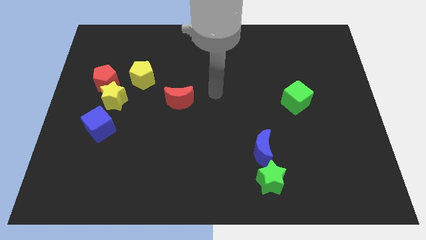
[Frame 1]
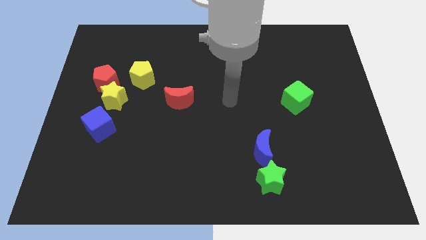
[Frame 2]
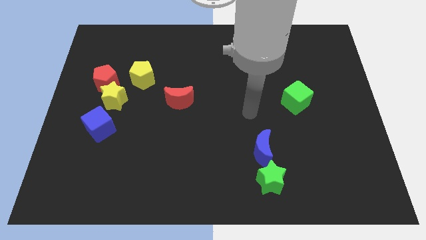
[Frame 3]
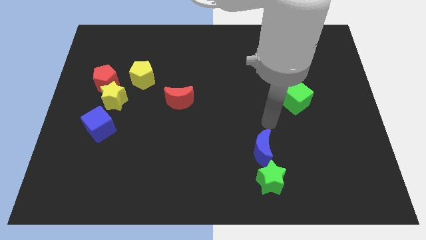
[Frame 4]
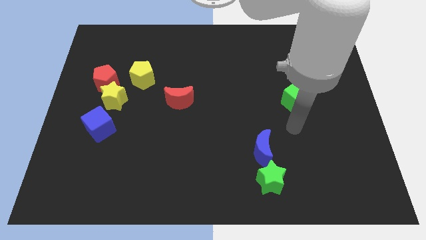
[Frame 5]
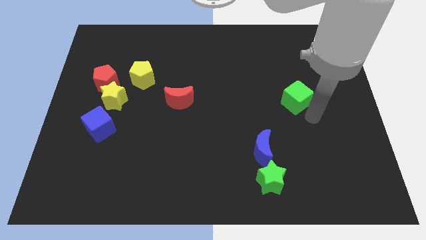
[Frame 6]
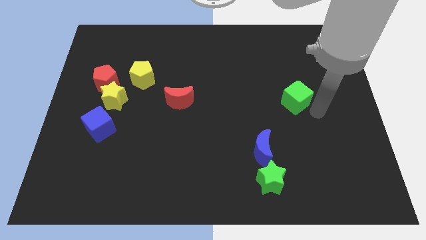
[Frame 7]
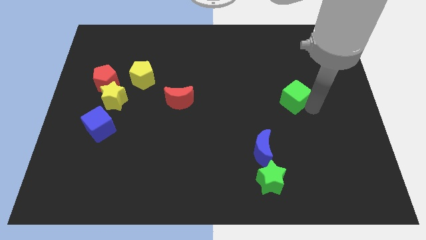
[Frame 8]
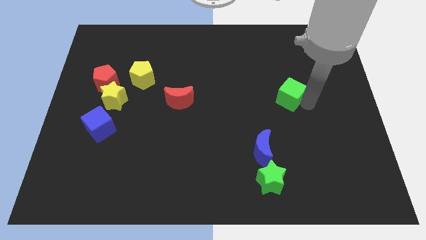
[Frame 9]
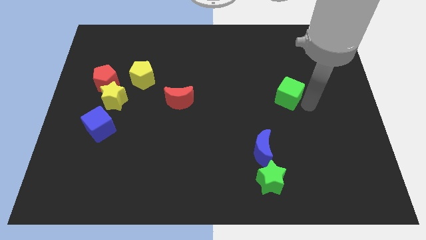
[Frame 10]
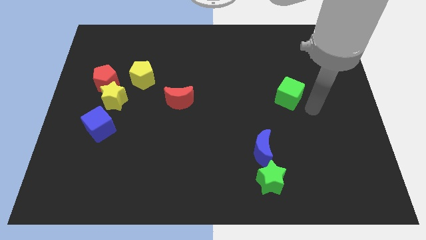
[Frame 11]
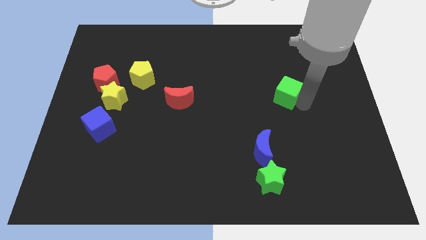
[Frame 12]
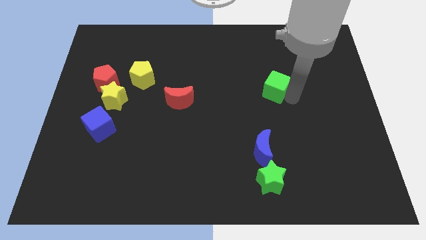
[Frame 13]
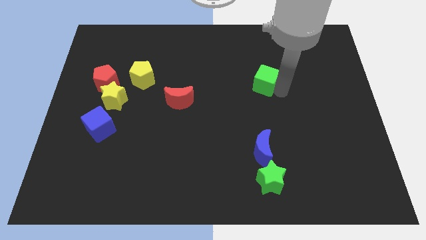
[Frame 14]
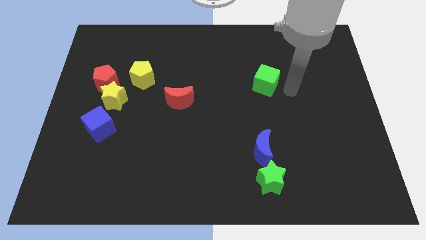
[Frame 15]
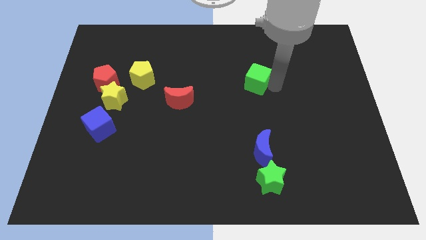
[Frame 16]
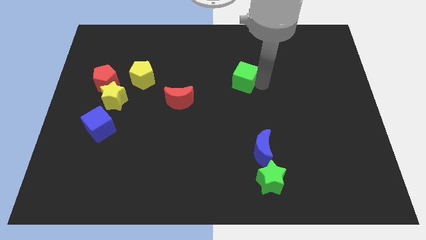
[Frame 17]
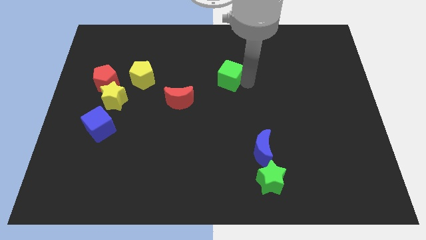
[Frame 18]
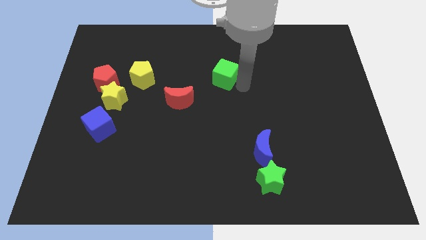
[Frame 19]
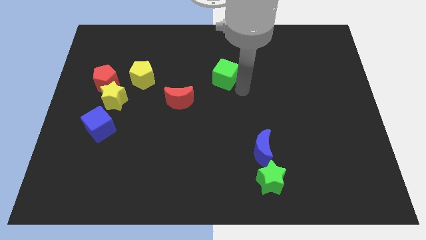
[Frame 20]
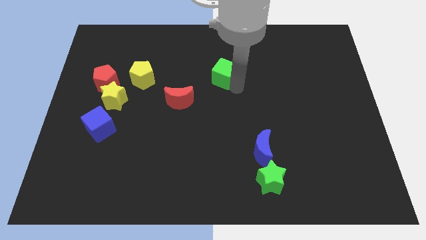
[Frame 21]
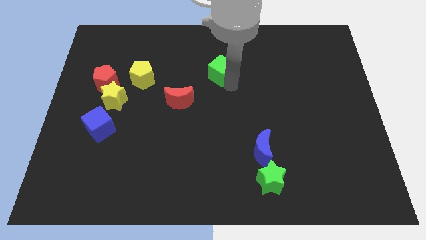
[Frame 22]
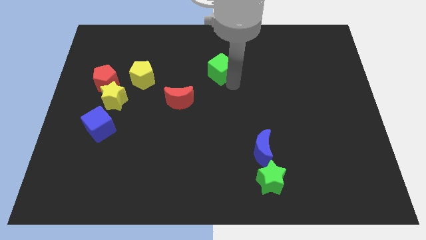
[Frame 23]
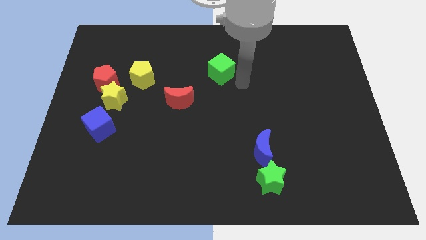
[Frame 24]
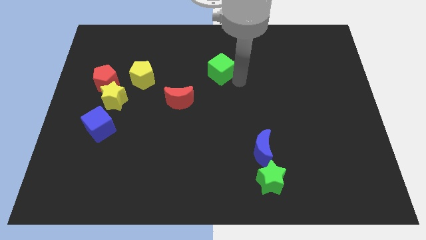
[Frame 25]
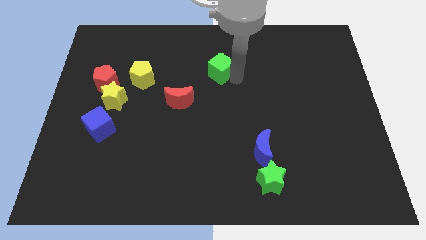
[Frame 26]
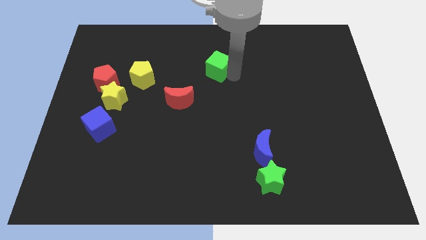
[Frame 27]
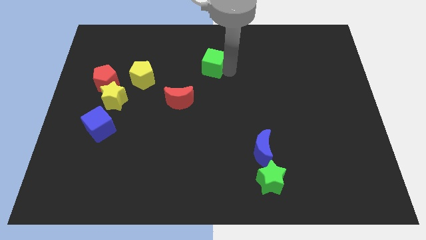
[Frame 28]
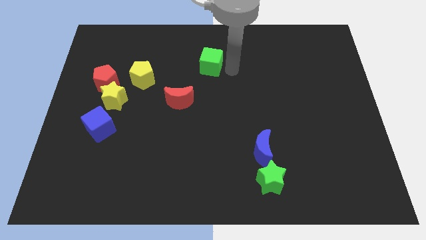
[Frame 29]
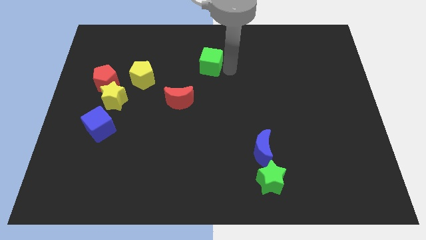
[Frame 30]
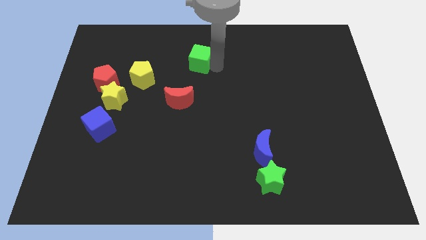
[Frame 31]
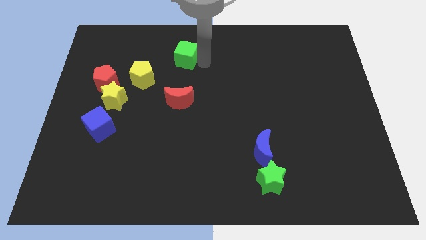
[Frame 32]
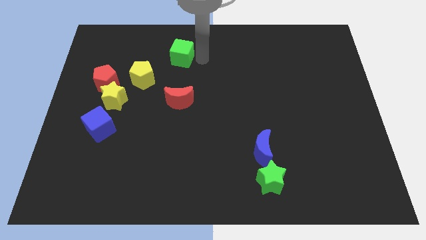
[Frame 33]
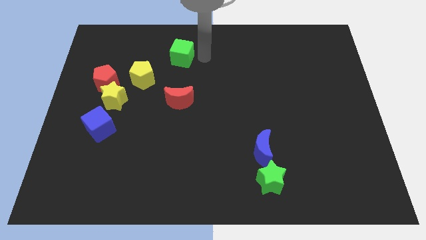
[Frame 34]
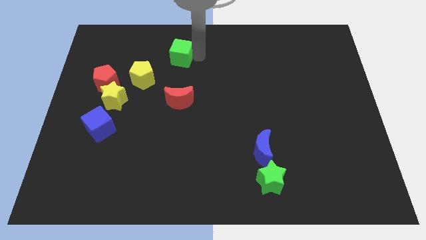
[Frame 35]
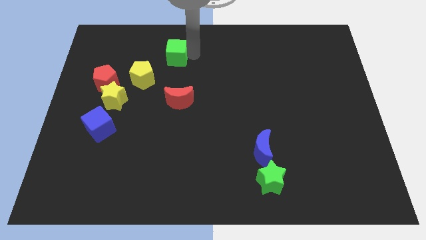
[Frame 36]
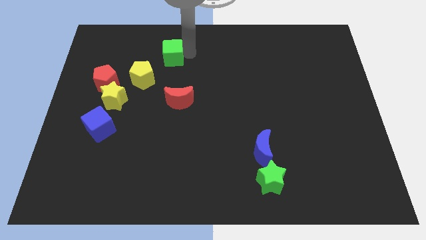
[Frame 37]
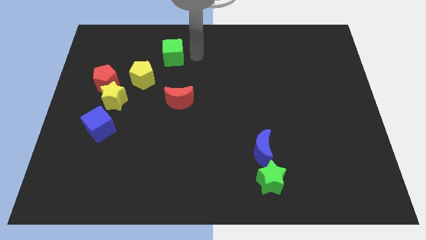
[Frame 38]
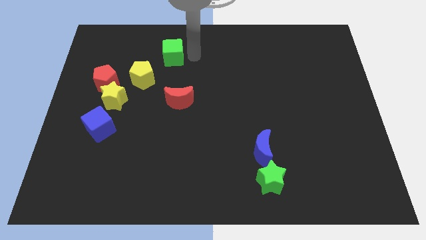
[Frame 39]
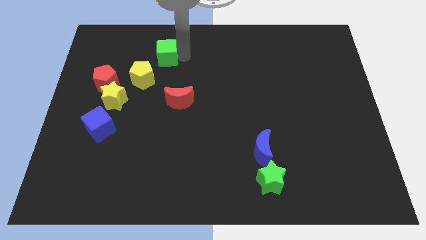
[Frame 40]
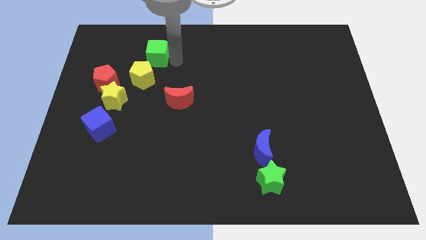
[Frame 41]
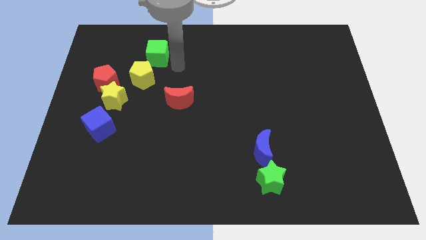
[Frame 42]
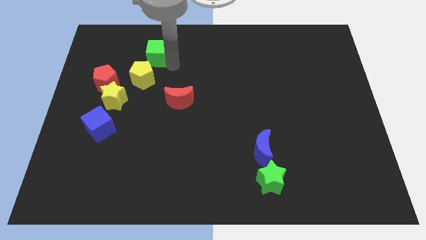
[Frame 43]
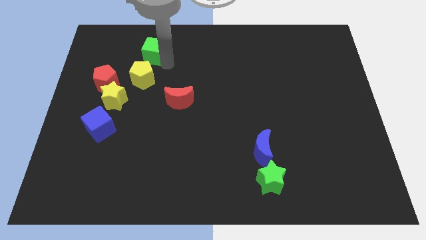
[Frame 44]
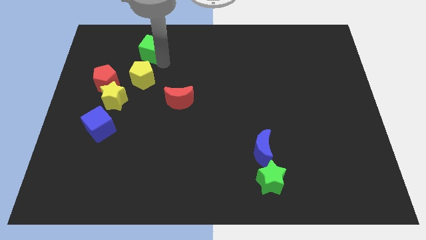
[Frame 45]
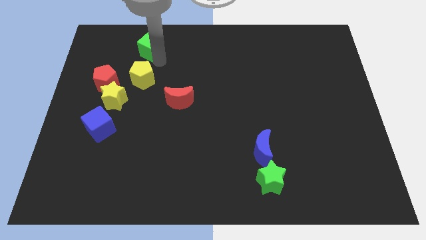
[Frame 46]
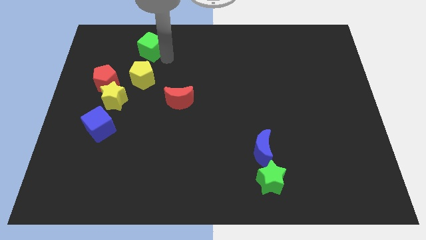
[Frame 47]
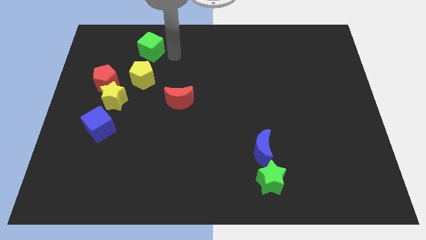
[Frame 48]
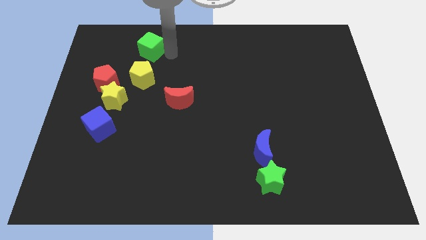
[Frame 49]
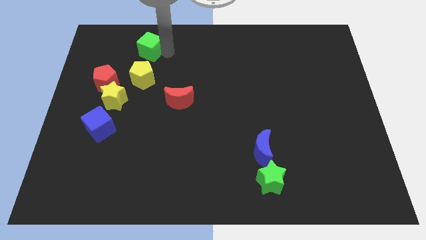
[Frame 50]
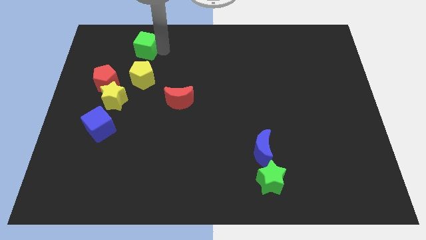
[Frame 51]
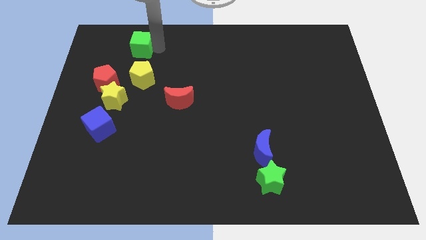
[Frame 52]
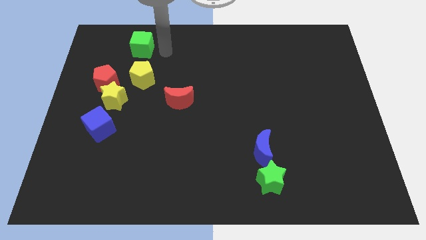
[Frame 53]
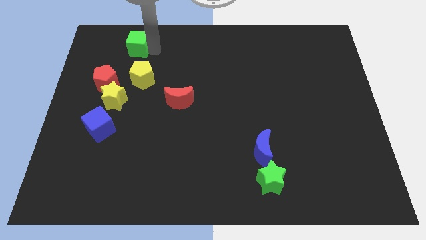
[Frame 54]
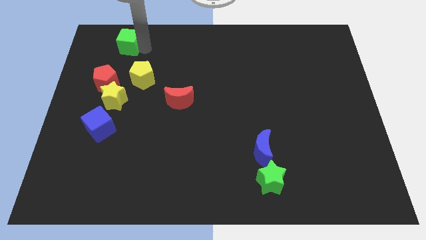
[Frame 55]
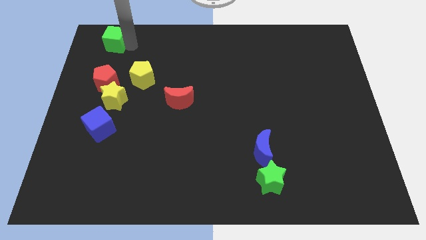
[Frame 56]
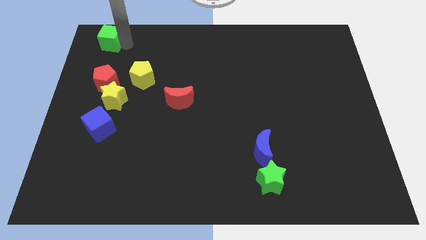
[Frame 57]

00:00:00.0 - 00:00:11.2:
move the green cube to the top left corner

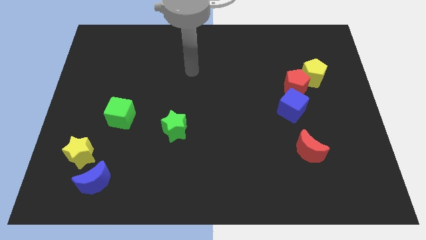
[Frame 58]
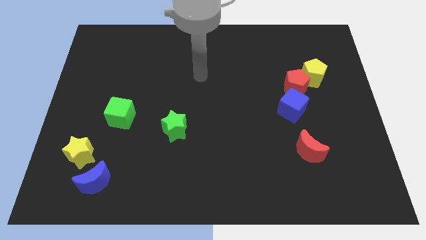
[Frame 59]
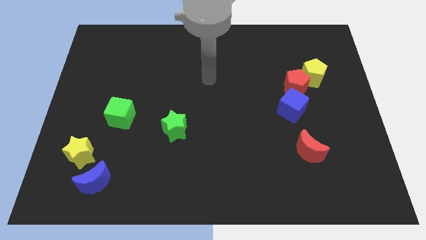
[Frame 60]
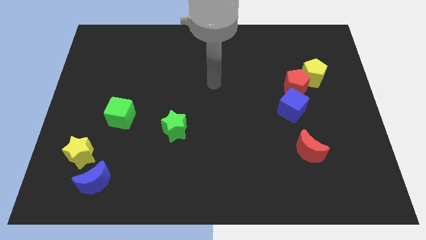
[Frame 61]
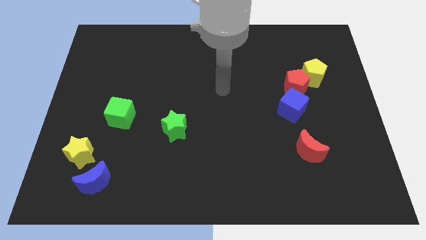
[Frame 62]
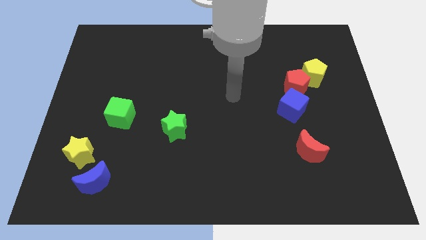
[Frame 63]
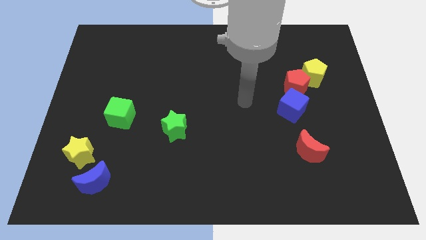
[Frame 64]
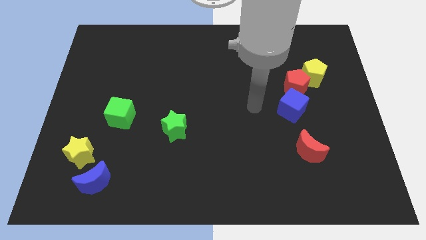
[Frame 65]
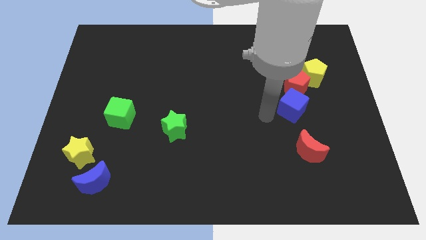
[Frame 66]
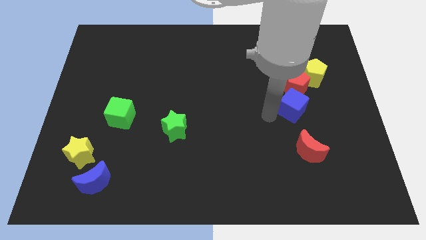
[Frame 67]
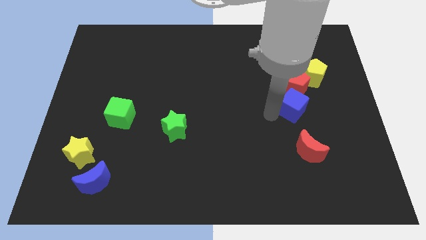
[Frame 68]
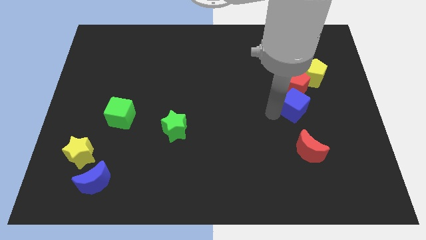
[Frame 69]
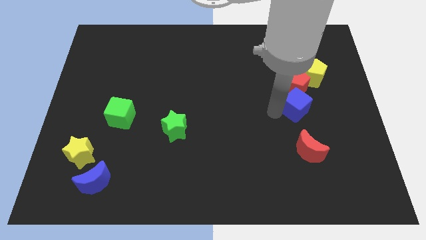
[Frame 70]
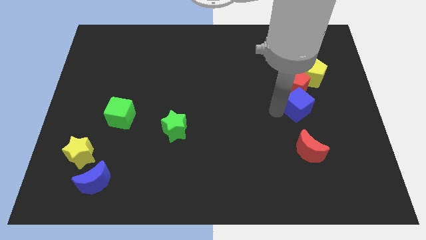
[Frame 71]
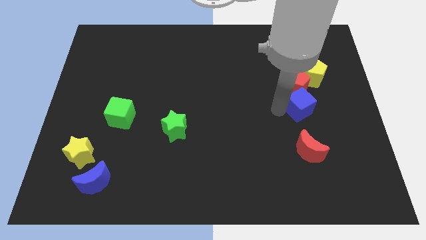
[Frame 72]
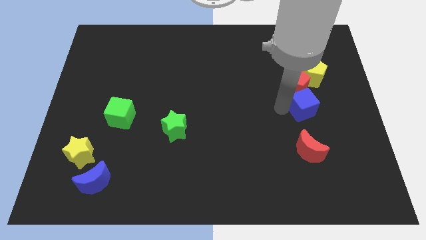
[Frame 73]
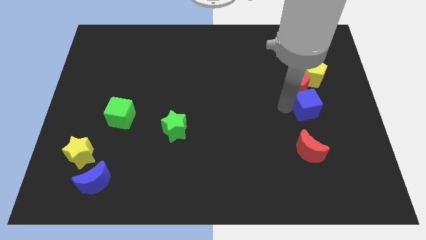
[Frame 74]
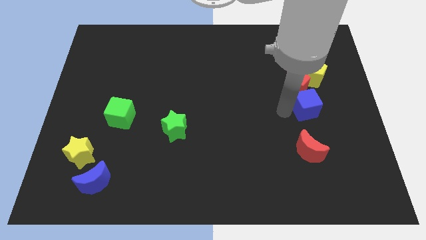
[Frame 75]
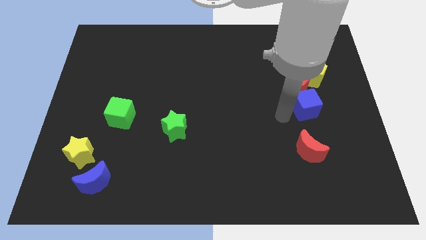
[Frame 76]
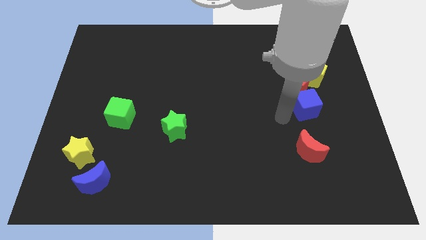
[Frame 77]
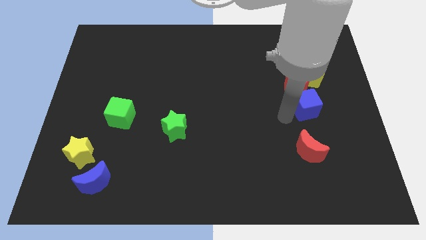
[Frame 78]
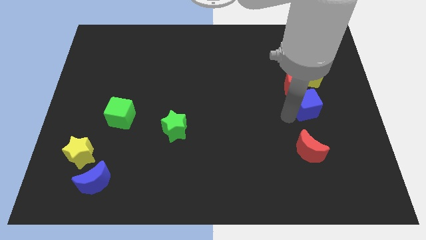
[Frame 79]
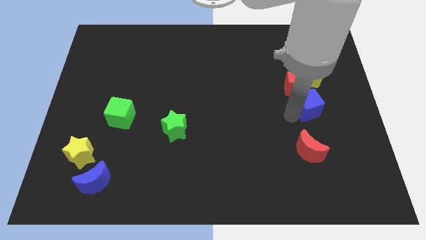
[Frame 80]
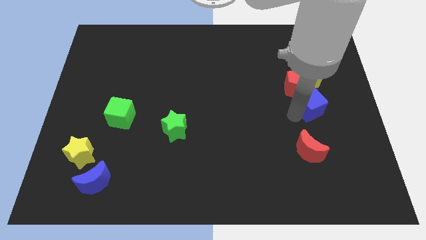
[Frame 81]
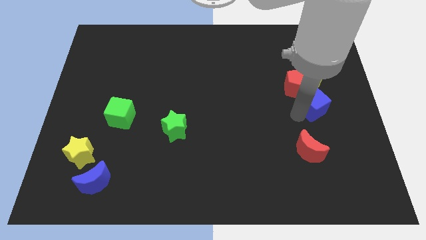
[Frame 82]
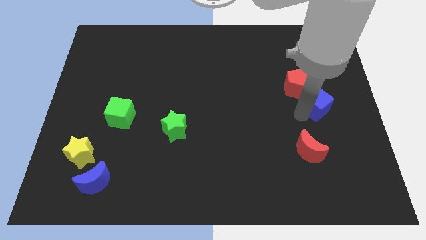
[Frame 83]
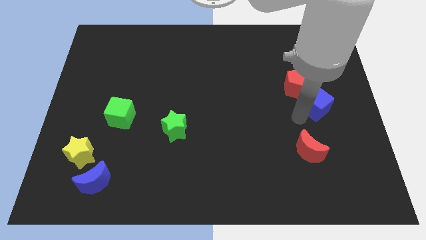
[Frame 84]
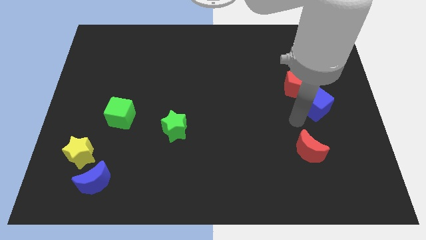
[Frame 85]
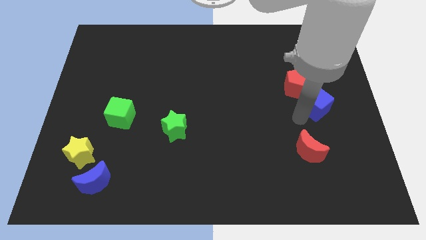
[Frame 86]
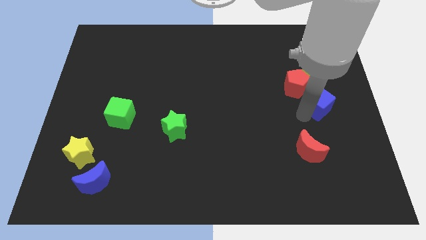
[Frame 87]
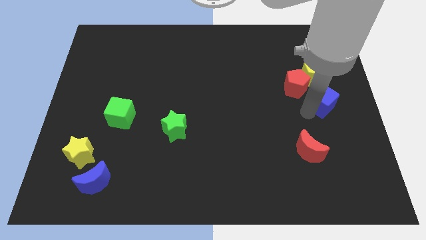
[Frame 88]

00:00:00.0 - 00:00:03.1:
slide the blue cube to the right side
